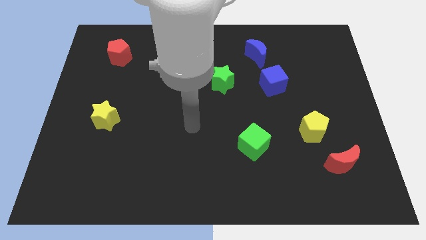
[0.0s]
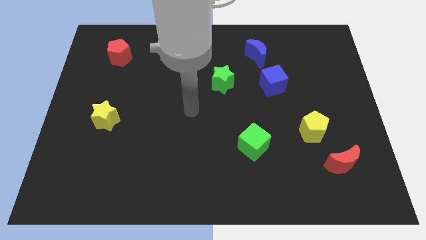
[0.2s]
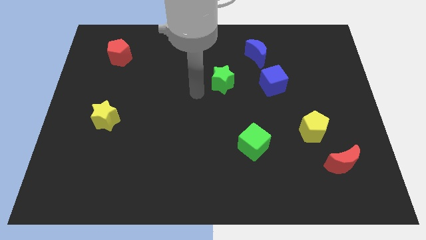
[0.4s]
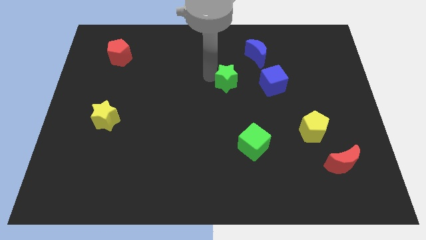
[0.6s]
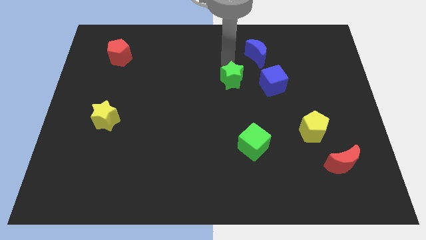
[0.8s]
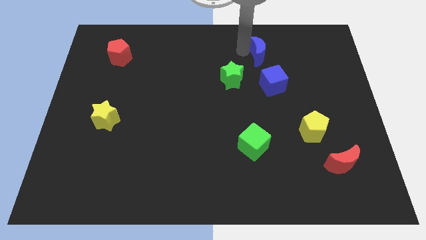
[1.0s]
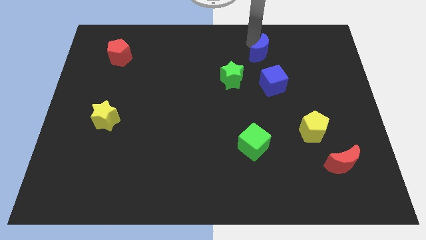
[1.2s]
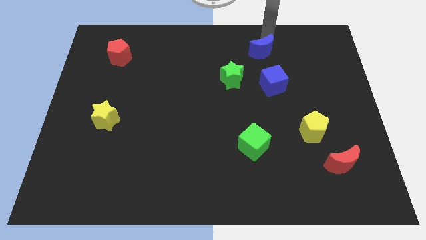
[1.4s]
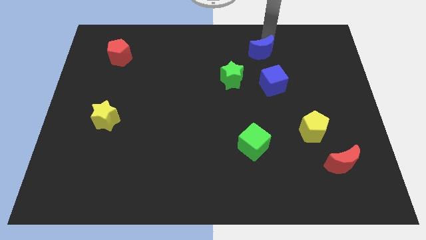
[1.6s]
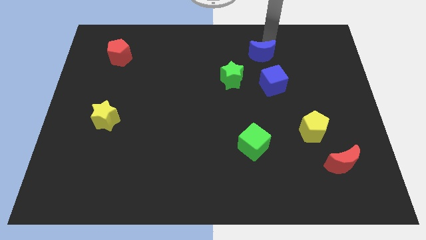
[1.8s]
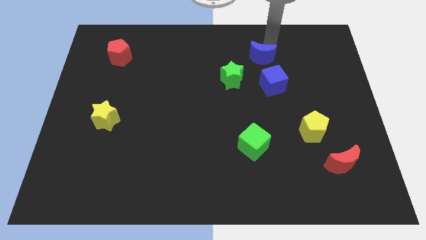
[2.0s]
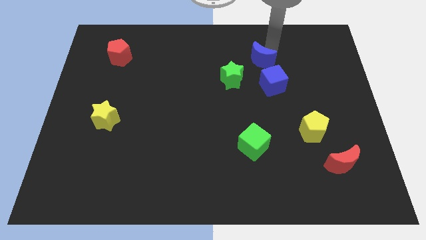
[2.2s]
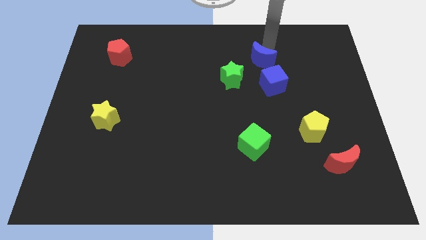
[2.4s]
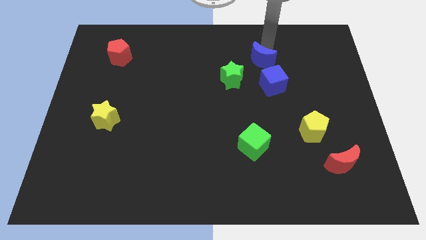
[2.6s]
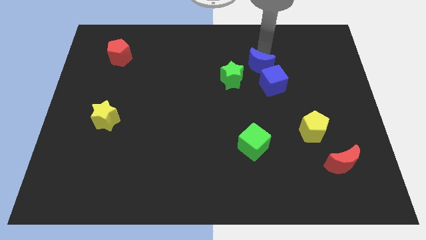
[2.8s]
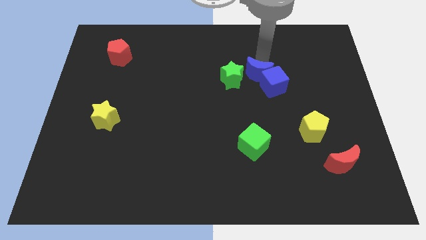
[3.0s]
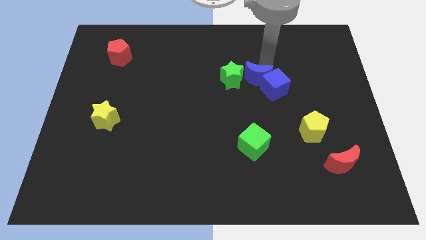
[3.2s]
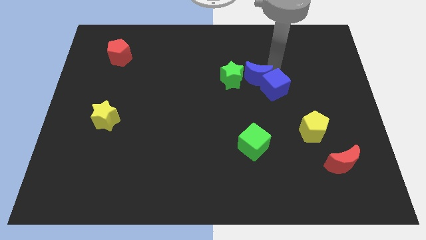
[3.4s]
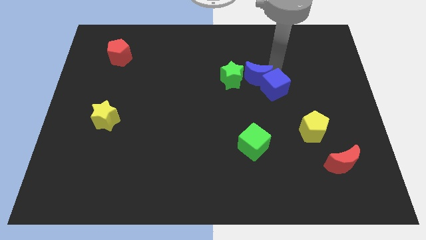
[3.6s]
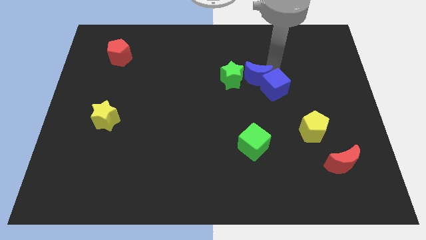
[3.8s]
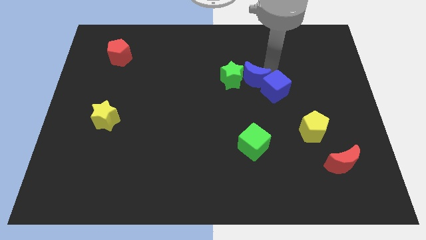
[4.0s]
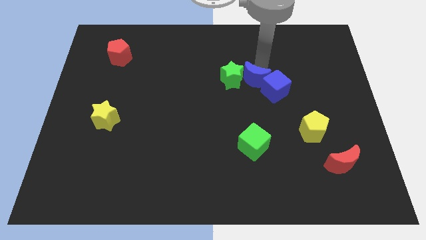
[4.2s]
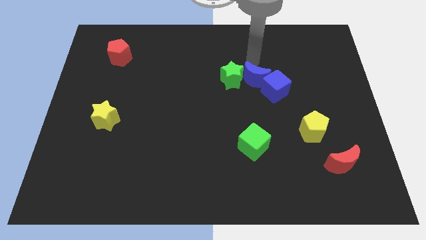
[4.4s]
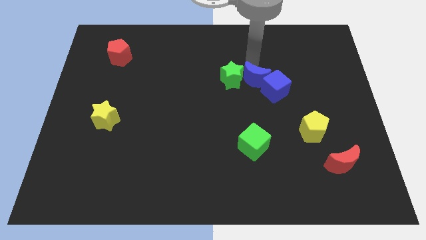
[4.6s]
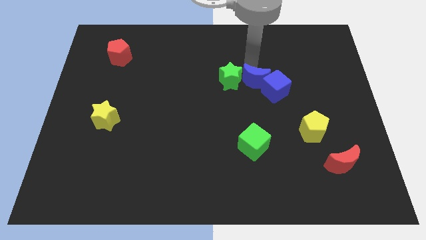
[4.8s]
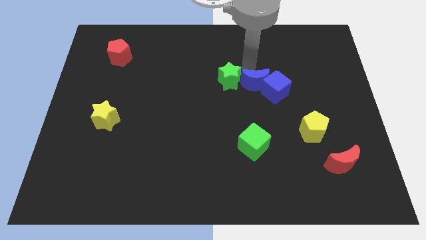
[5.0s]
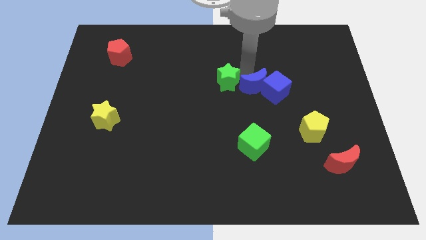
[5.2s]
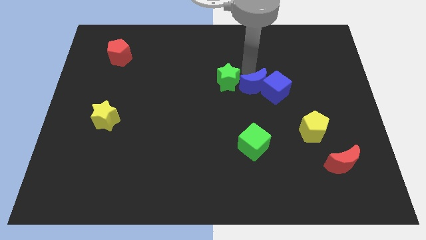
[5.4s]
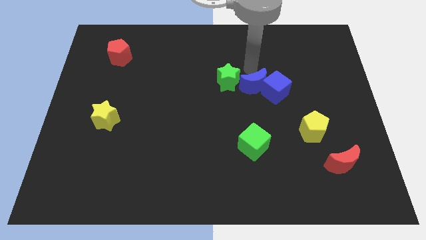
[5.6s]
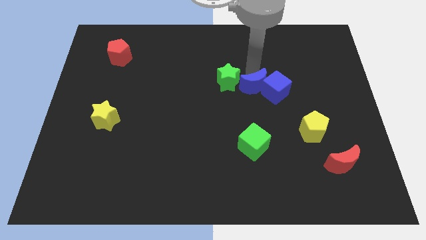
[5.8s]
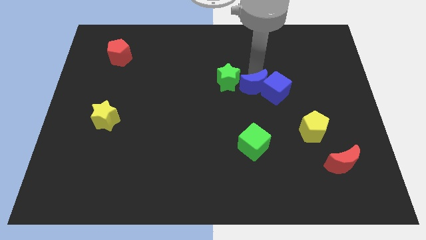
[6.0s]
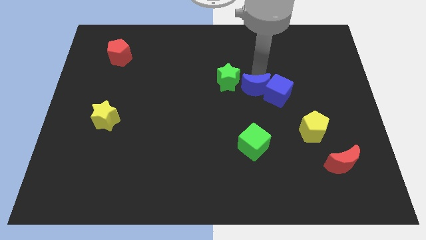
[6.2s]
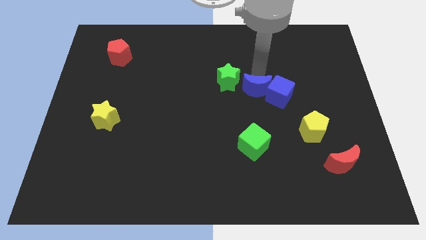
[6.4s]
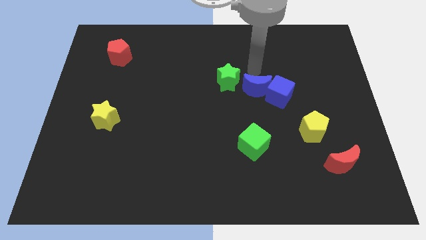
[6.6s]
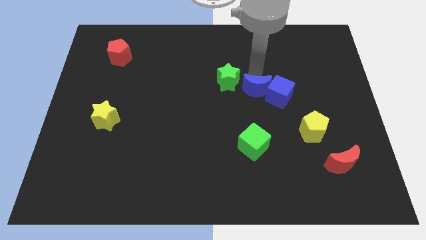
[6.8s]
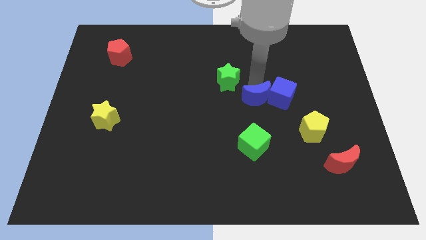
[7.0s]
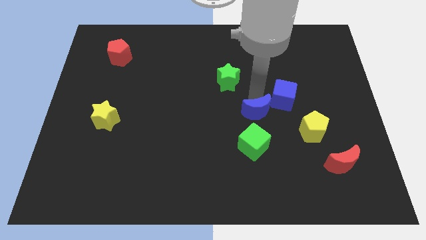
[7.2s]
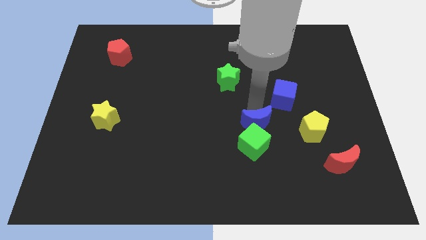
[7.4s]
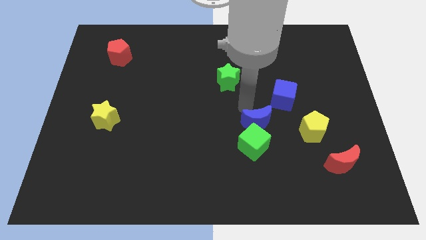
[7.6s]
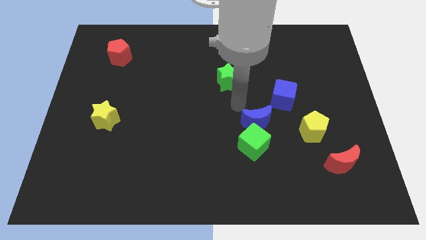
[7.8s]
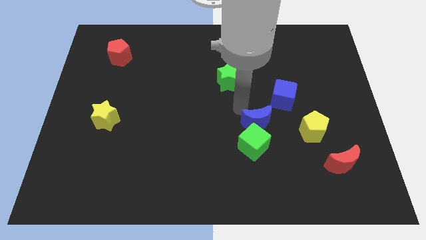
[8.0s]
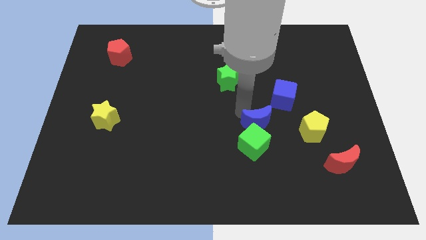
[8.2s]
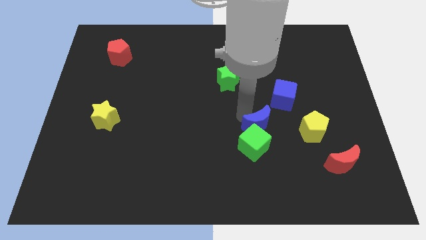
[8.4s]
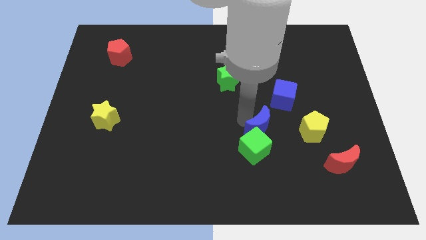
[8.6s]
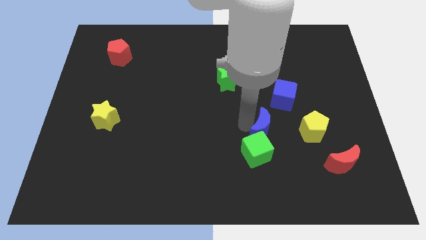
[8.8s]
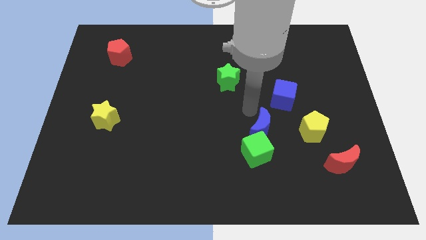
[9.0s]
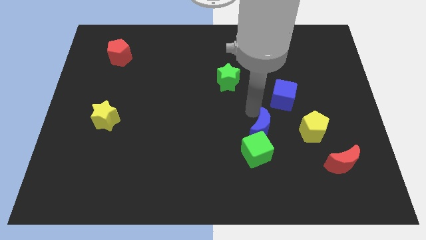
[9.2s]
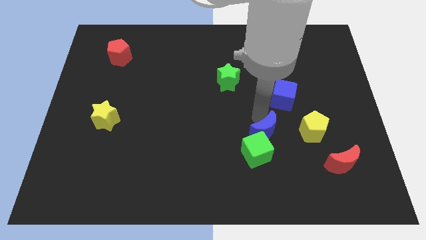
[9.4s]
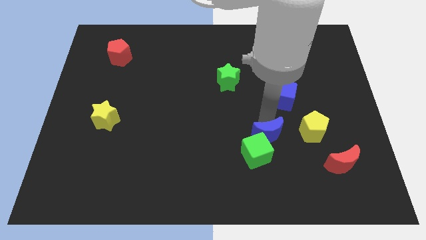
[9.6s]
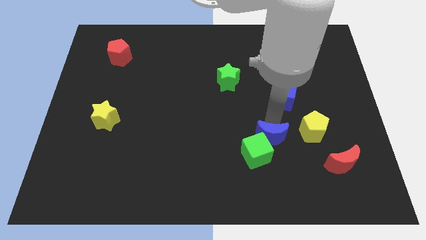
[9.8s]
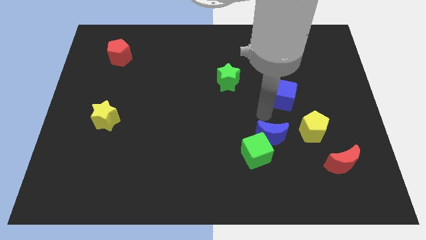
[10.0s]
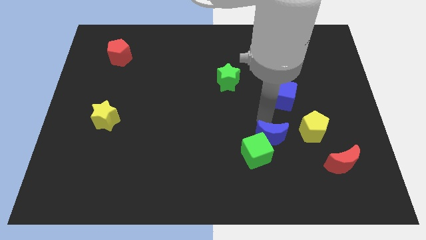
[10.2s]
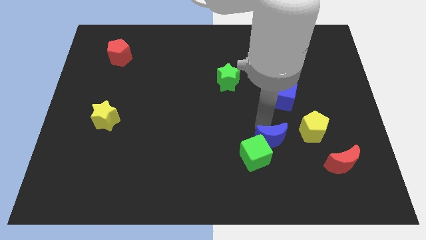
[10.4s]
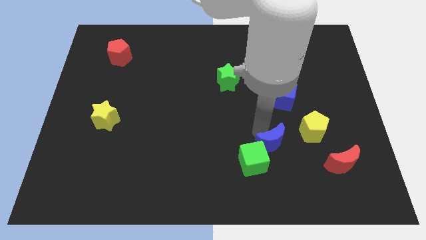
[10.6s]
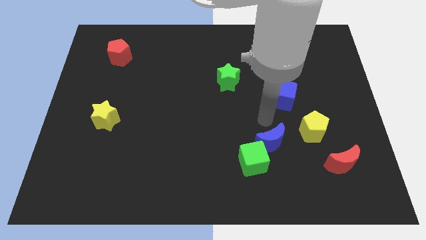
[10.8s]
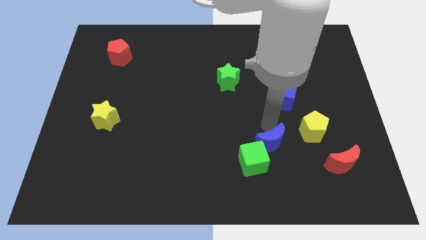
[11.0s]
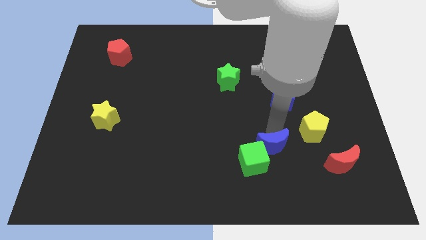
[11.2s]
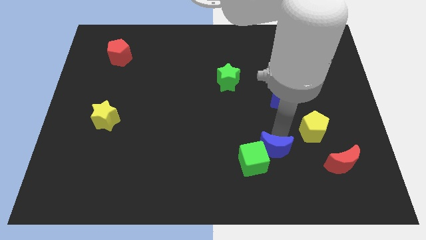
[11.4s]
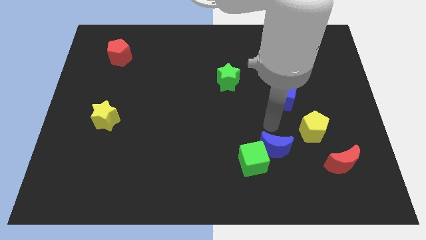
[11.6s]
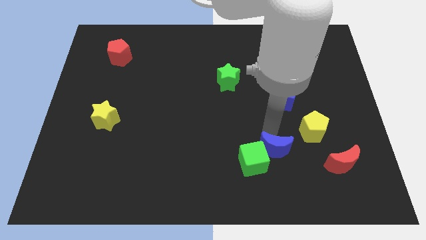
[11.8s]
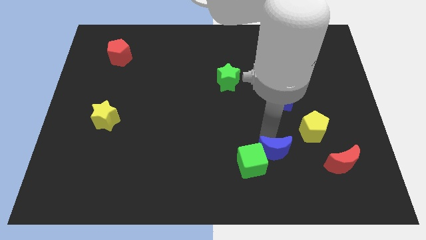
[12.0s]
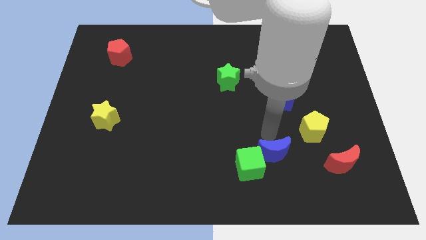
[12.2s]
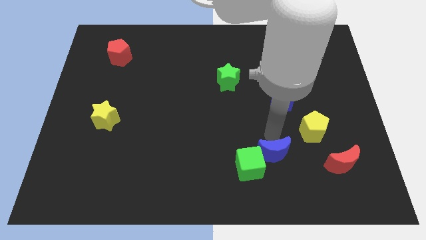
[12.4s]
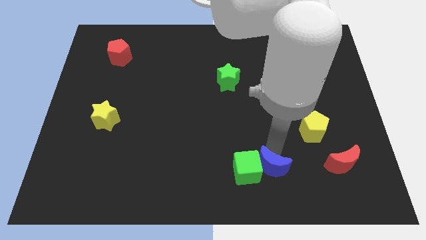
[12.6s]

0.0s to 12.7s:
slide the blue moon diagonally down and to the right of the green cube

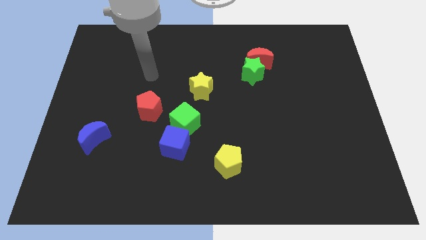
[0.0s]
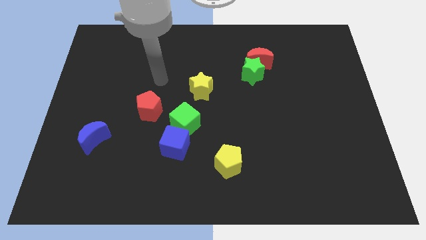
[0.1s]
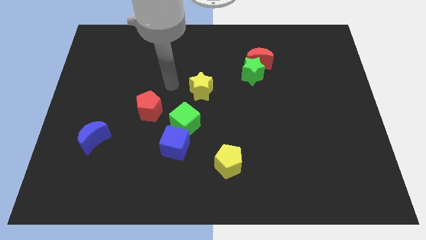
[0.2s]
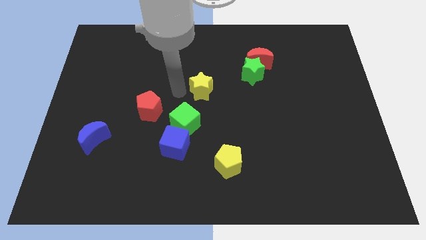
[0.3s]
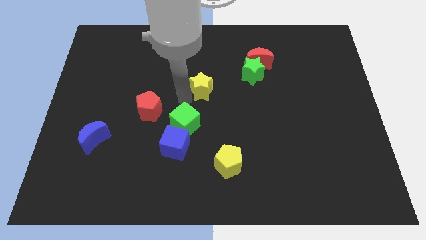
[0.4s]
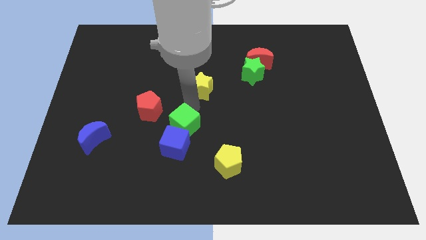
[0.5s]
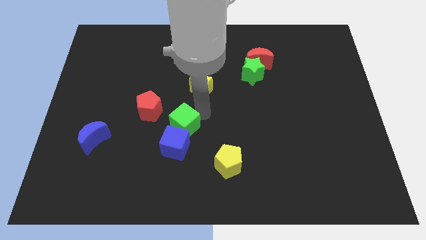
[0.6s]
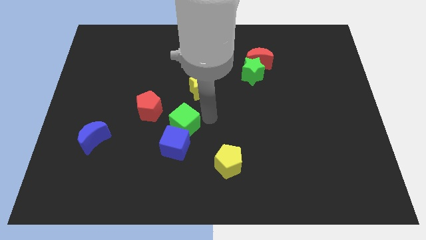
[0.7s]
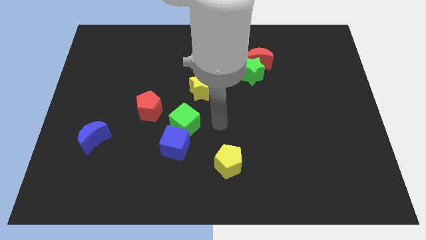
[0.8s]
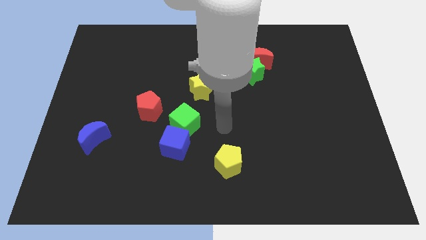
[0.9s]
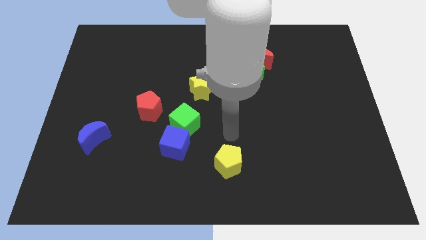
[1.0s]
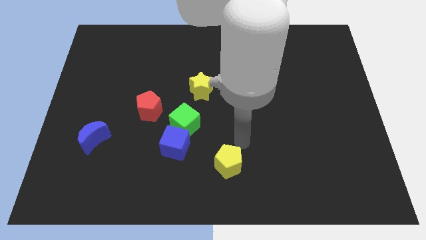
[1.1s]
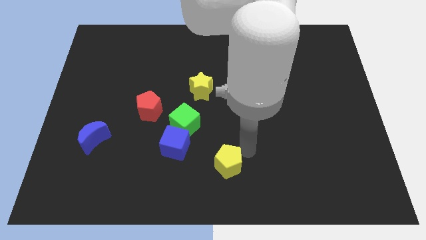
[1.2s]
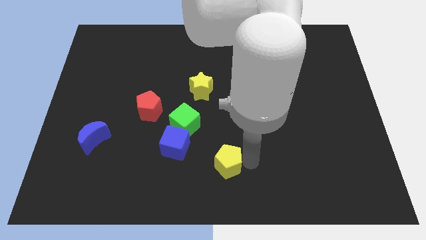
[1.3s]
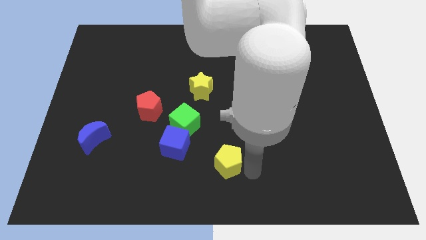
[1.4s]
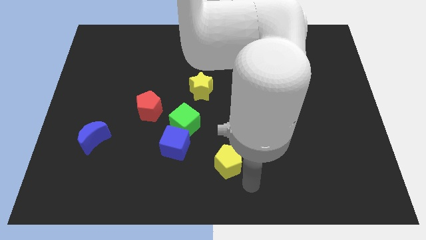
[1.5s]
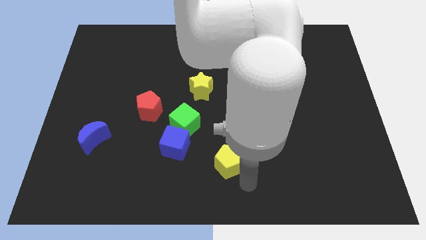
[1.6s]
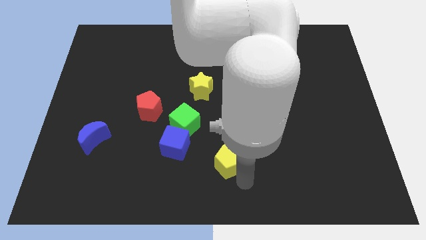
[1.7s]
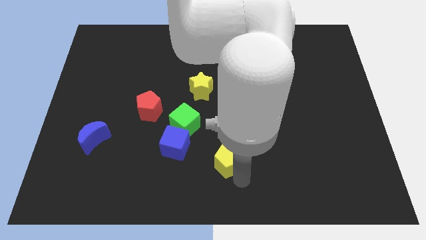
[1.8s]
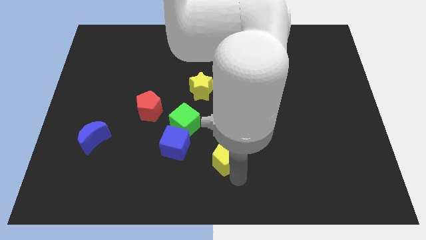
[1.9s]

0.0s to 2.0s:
push the yellow pentagon to the bottom right of the green cube
